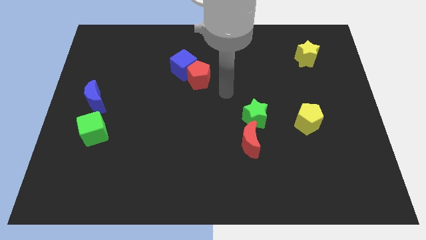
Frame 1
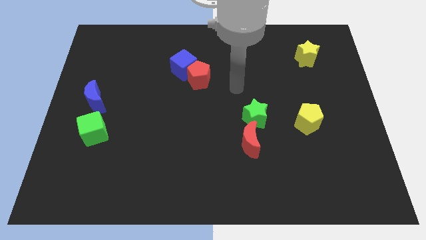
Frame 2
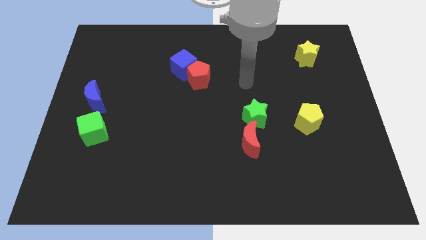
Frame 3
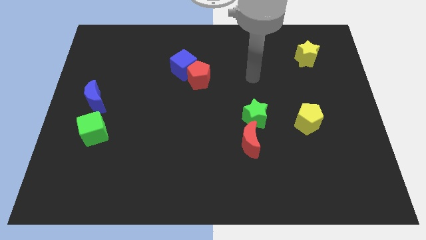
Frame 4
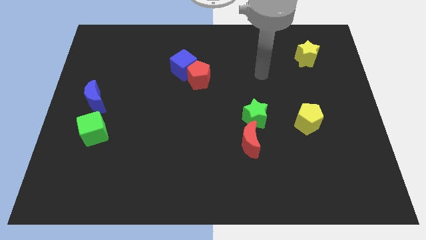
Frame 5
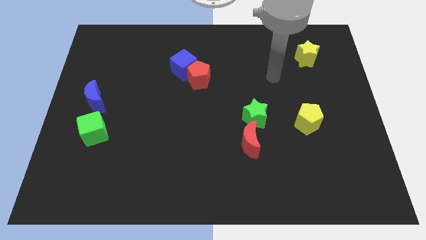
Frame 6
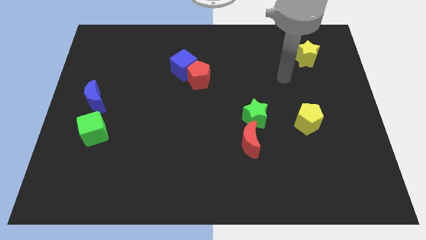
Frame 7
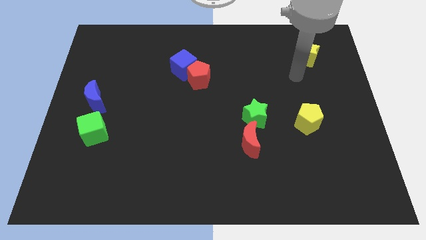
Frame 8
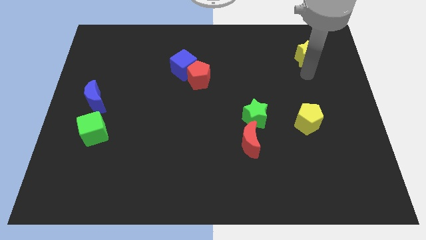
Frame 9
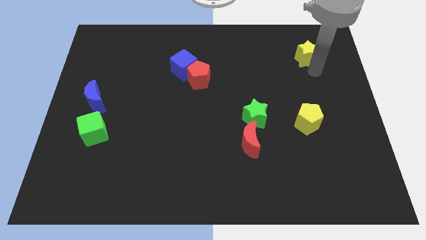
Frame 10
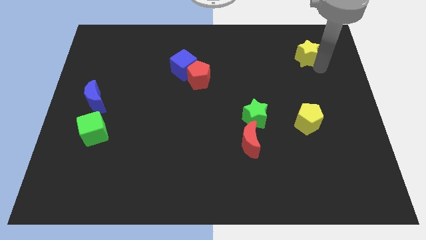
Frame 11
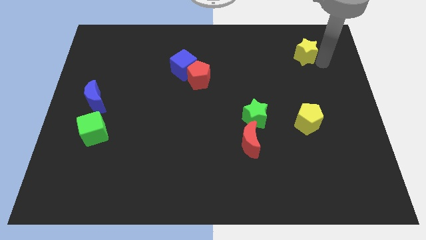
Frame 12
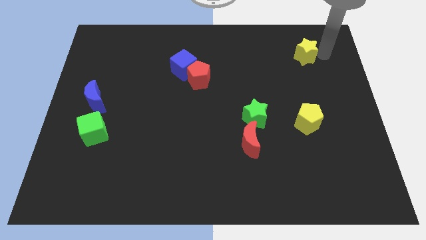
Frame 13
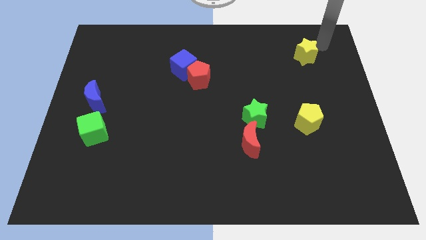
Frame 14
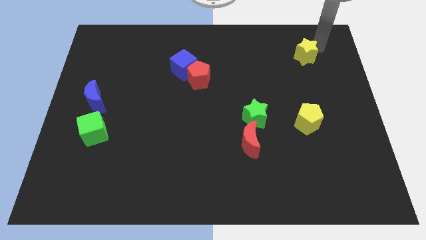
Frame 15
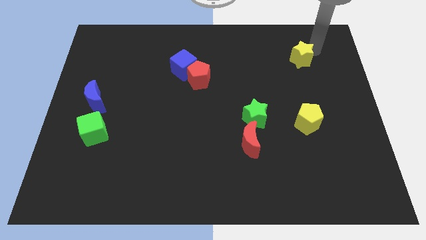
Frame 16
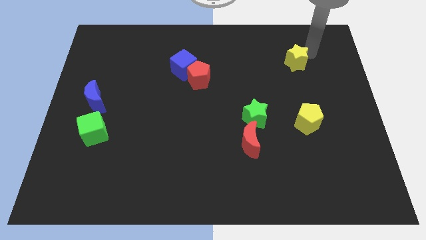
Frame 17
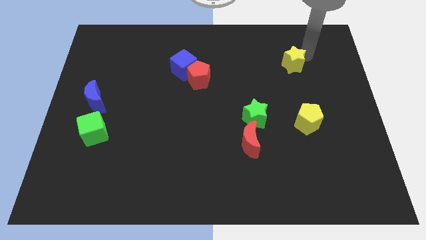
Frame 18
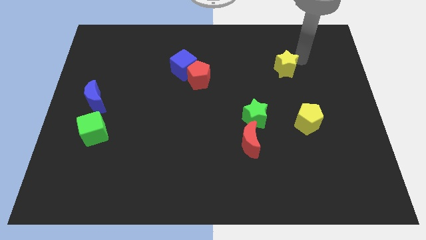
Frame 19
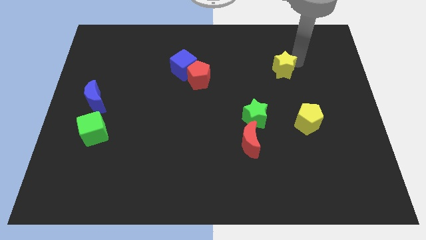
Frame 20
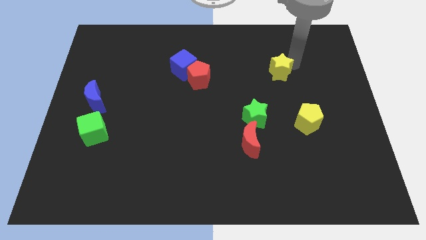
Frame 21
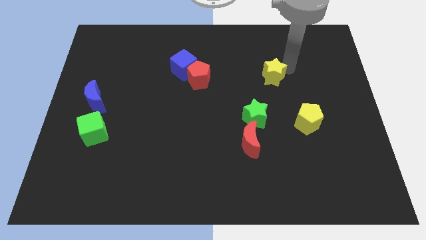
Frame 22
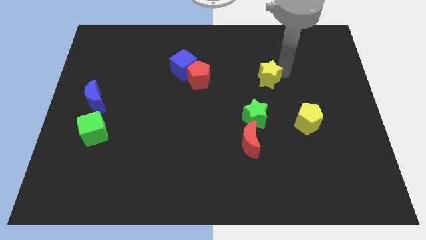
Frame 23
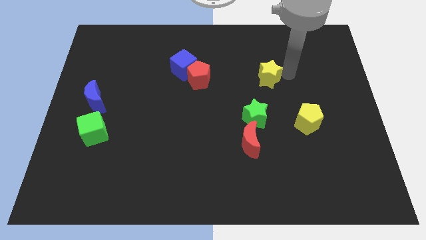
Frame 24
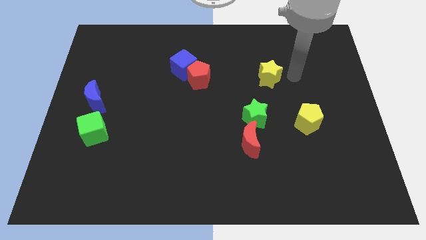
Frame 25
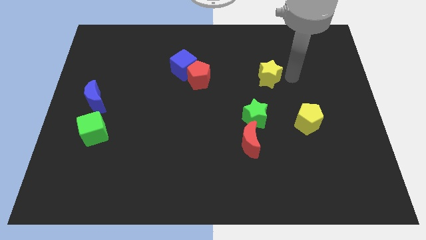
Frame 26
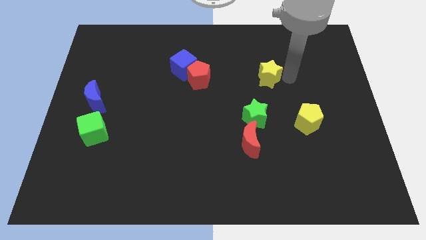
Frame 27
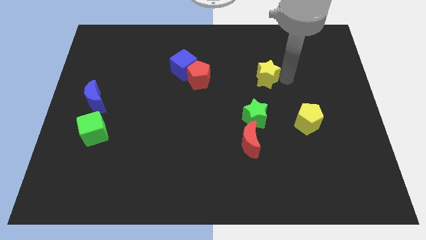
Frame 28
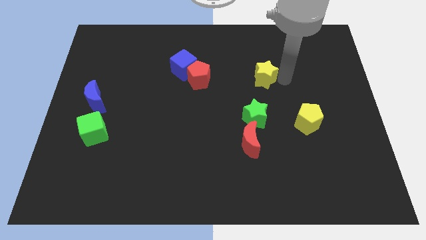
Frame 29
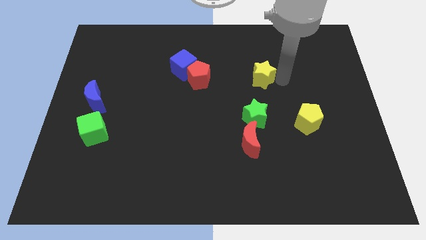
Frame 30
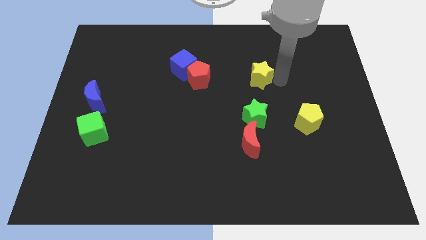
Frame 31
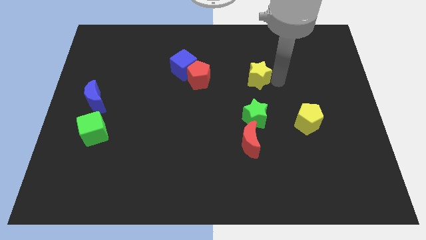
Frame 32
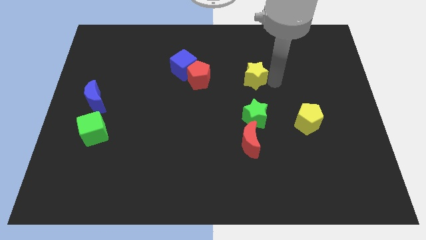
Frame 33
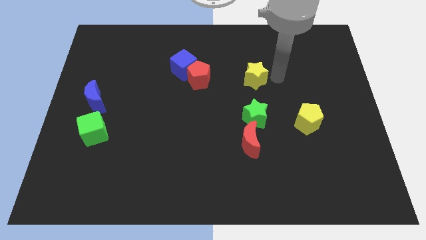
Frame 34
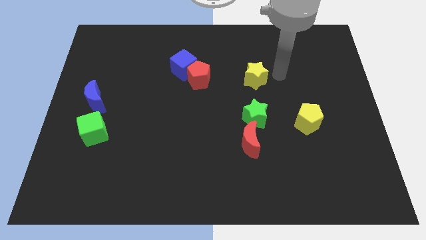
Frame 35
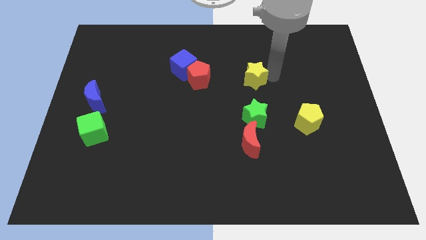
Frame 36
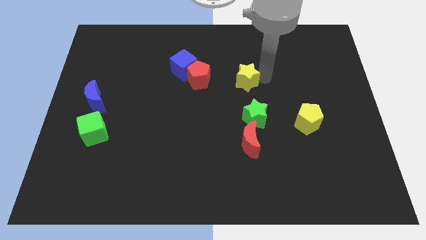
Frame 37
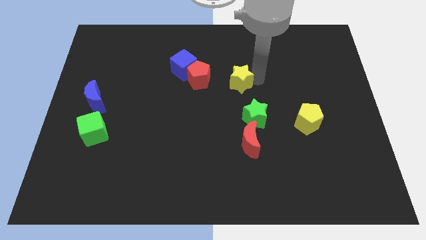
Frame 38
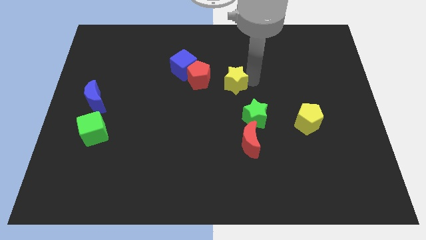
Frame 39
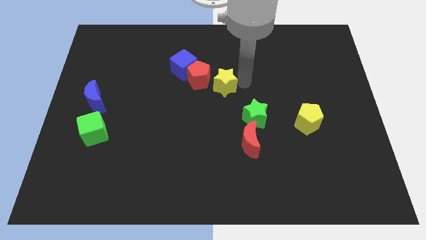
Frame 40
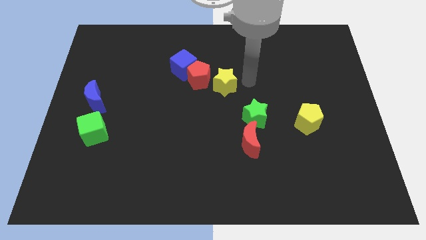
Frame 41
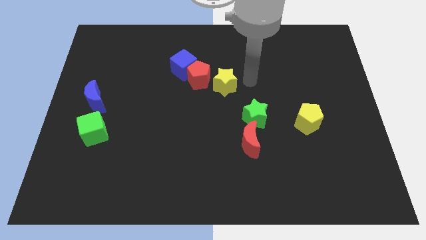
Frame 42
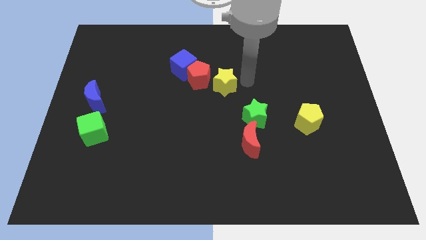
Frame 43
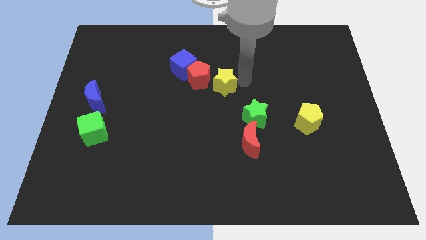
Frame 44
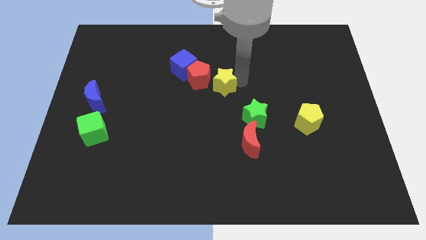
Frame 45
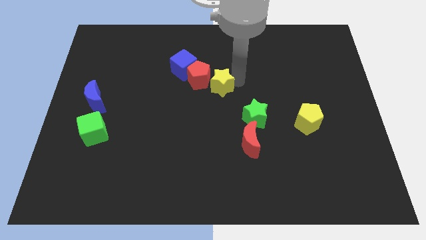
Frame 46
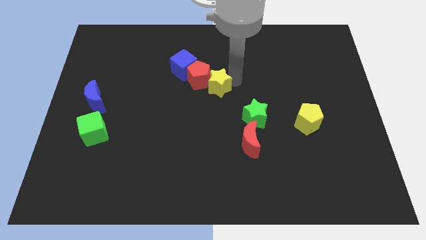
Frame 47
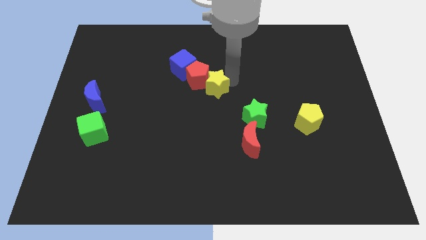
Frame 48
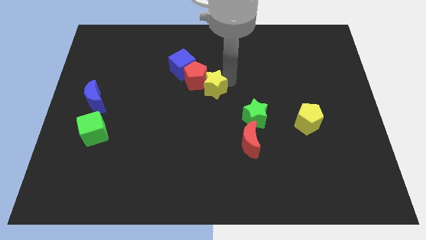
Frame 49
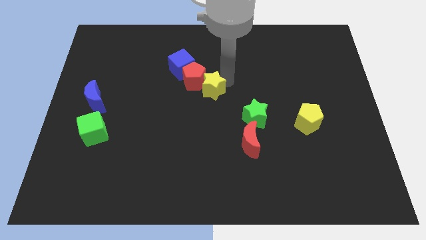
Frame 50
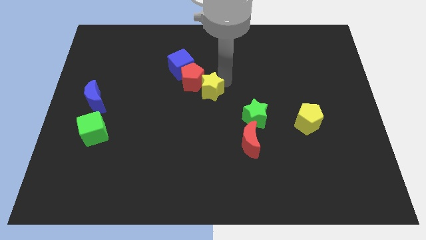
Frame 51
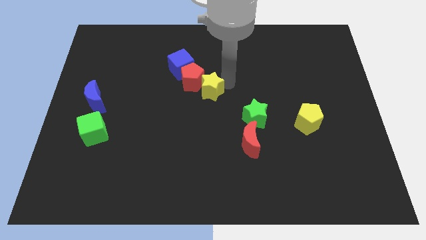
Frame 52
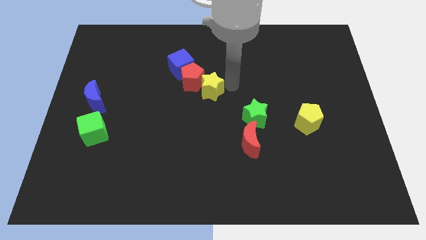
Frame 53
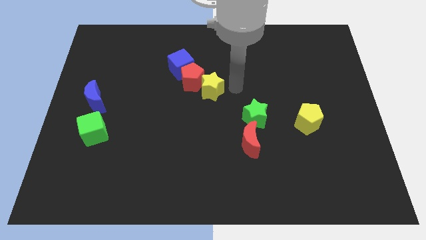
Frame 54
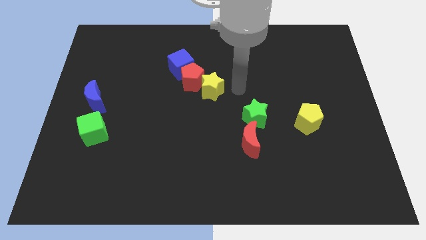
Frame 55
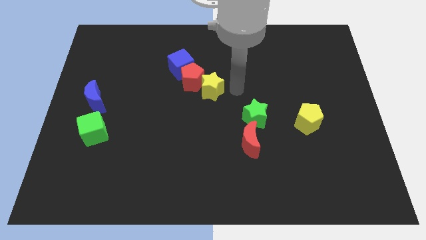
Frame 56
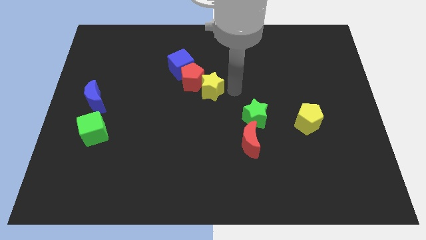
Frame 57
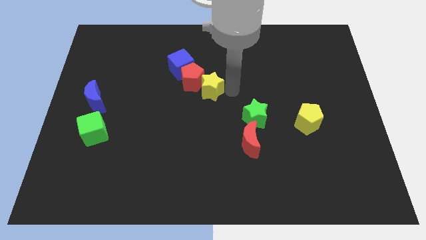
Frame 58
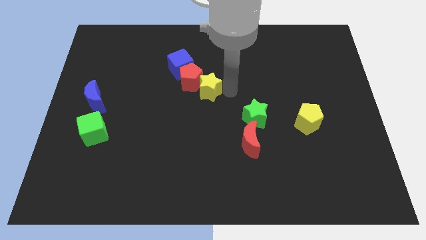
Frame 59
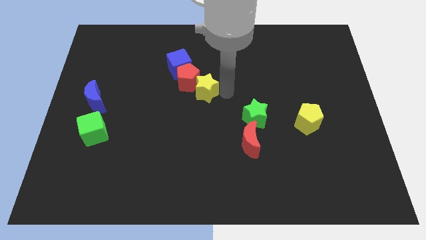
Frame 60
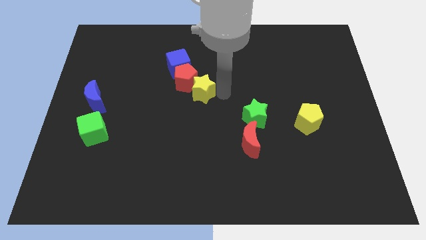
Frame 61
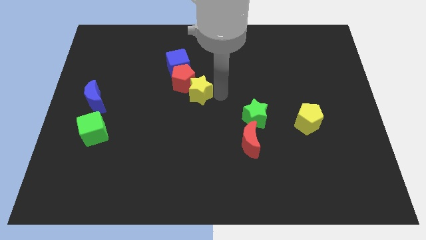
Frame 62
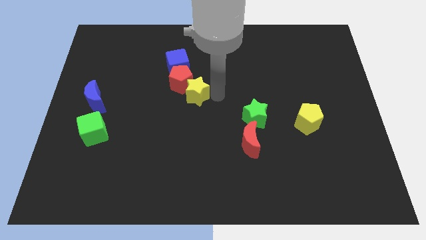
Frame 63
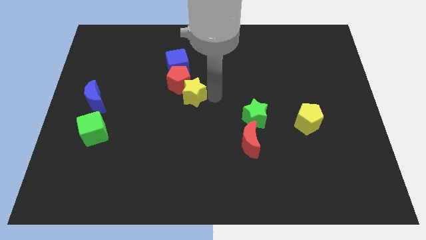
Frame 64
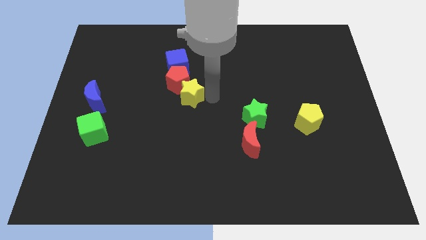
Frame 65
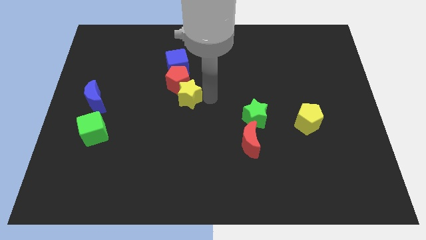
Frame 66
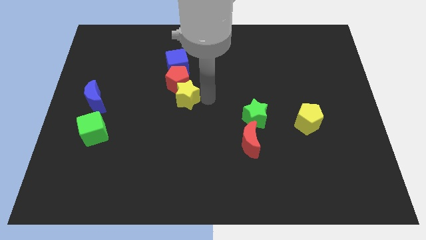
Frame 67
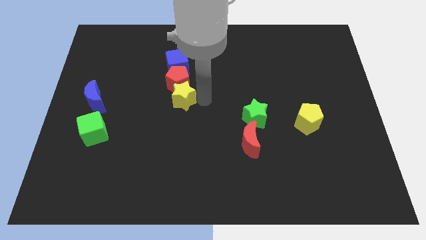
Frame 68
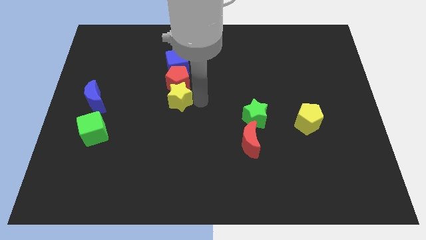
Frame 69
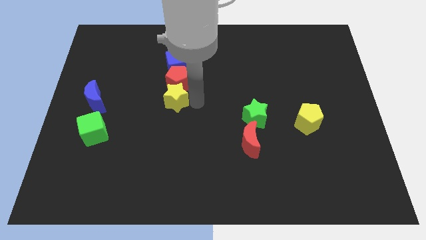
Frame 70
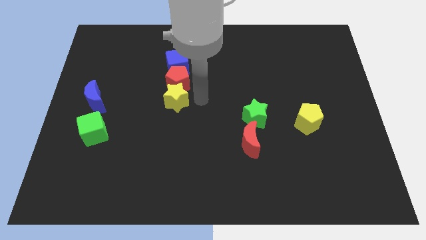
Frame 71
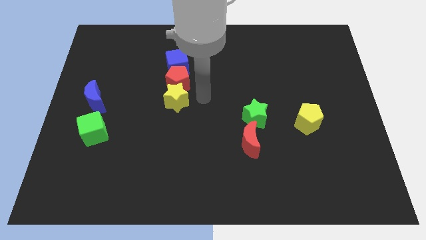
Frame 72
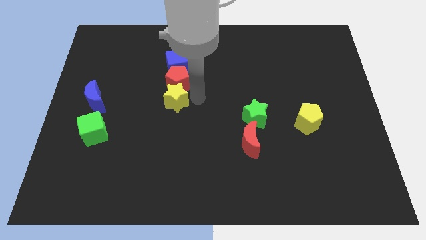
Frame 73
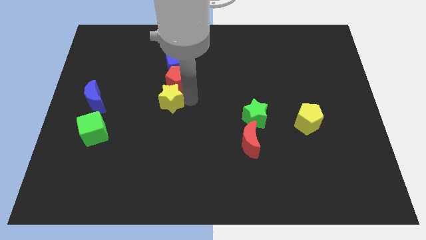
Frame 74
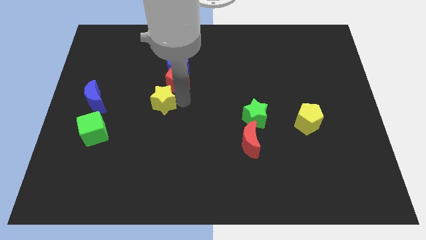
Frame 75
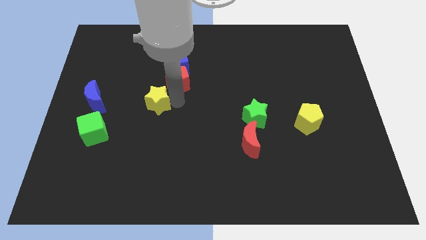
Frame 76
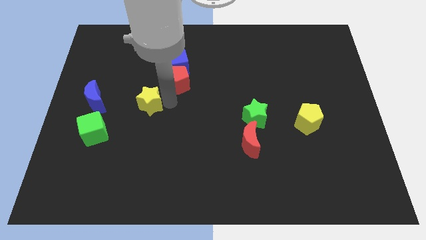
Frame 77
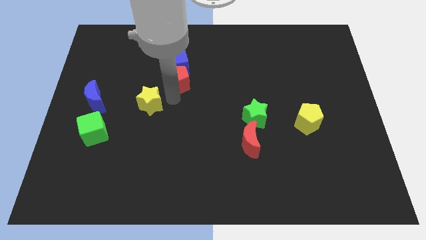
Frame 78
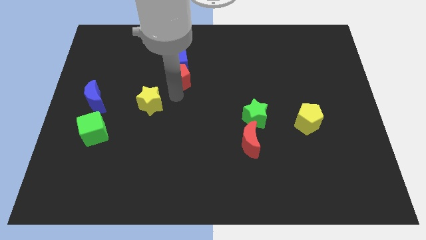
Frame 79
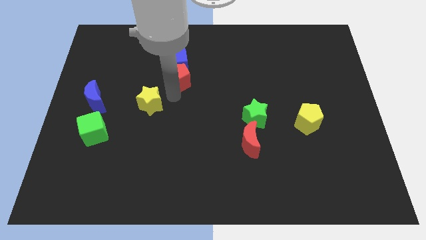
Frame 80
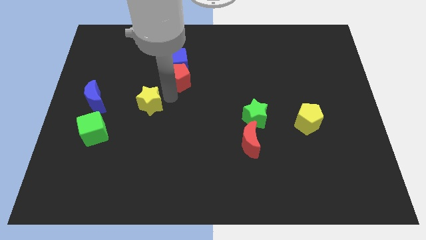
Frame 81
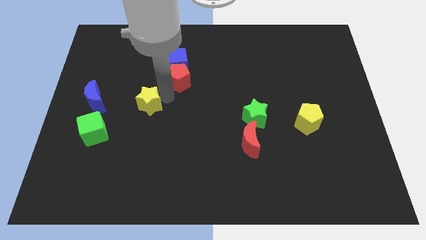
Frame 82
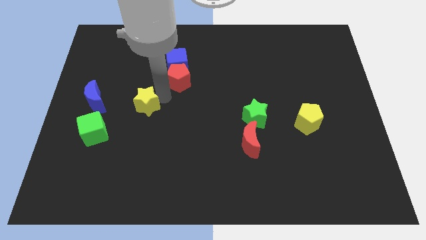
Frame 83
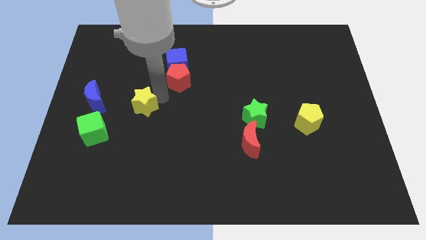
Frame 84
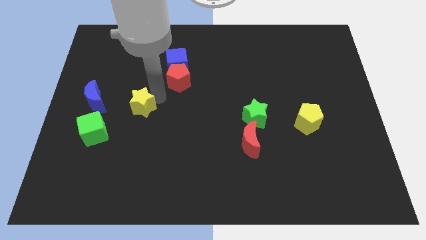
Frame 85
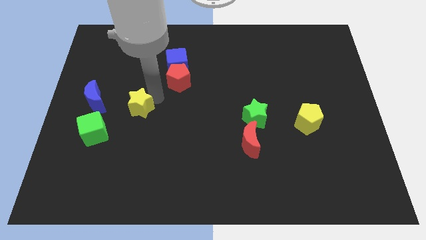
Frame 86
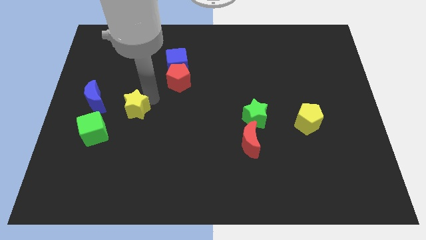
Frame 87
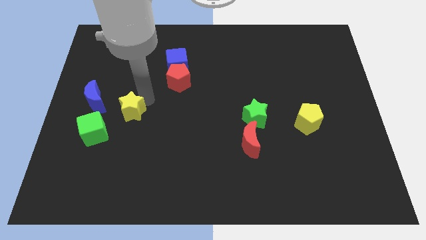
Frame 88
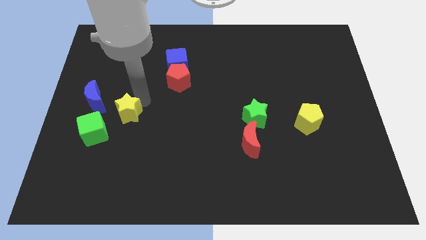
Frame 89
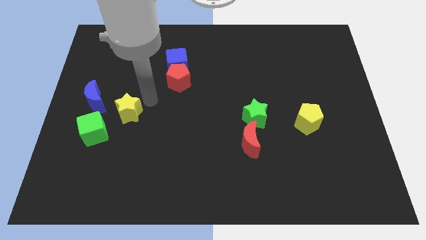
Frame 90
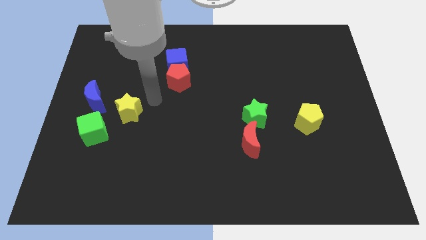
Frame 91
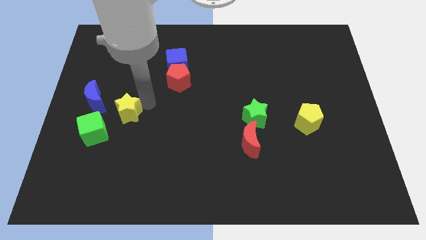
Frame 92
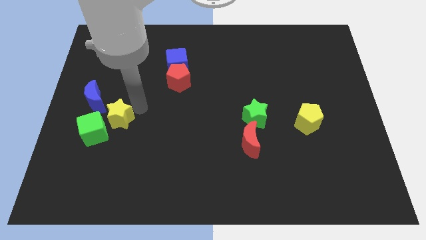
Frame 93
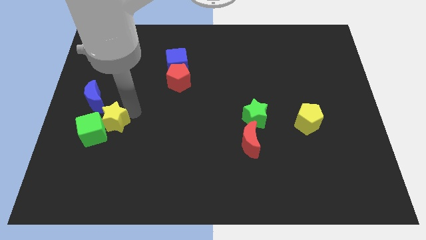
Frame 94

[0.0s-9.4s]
move the yellow star close to the green cube
